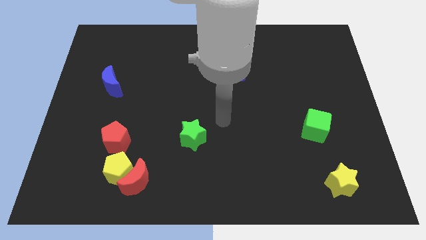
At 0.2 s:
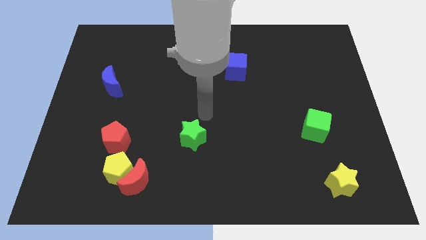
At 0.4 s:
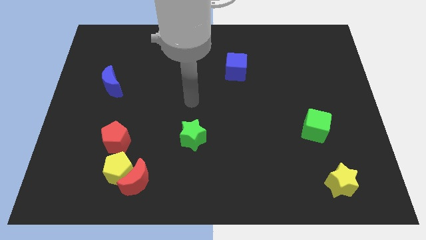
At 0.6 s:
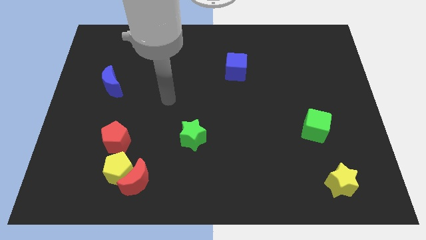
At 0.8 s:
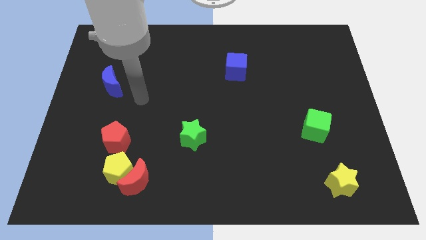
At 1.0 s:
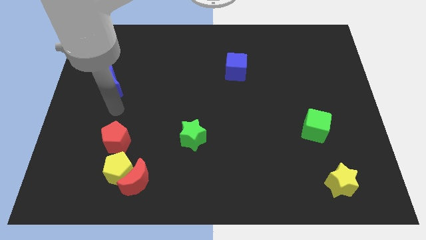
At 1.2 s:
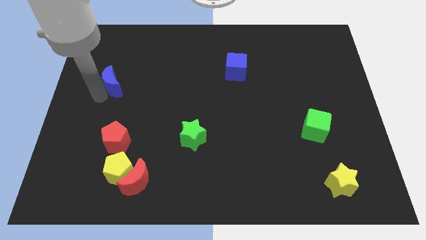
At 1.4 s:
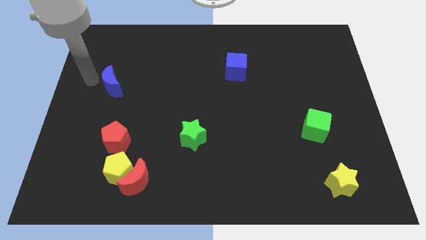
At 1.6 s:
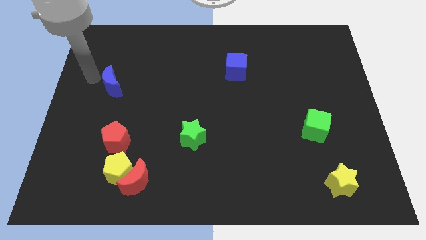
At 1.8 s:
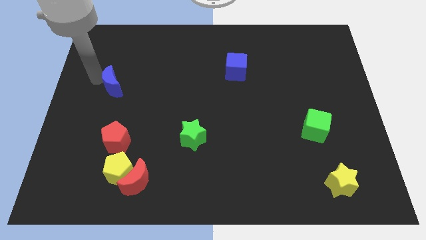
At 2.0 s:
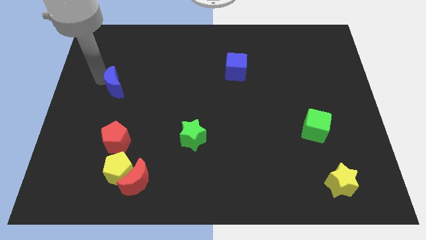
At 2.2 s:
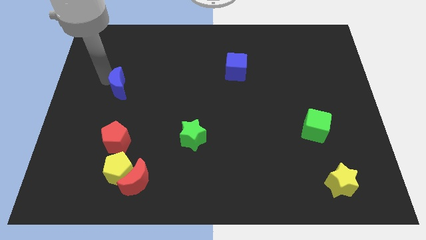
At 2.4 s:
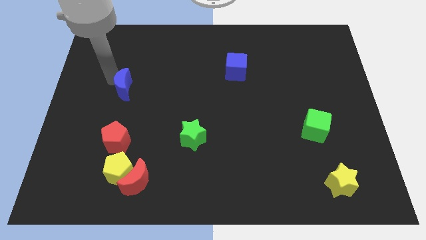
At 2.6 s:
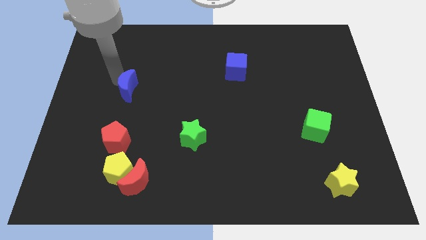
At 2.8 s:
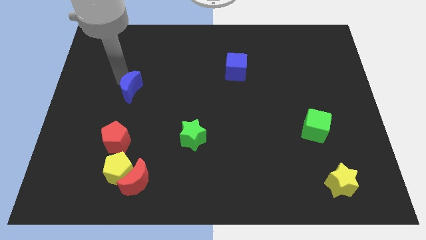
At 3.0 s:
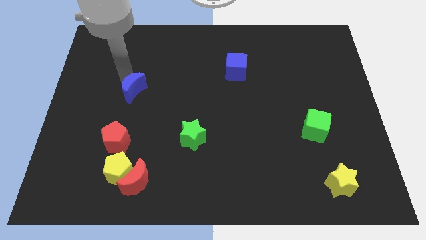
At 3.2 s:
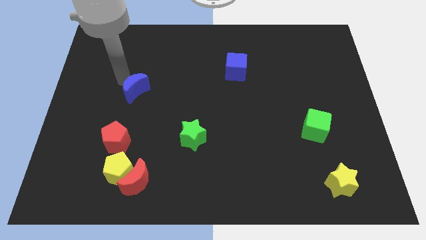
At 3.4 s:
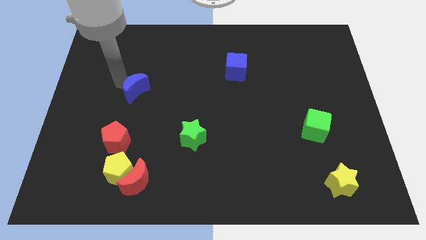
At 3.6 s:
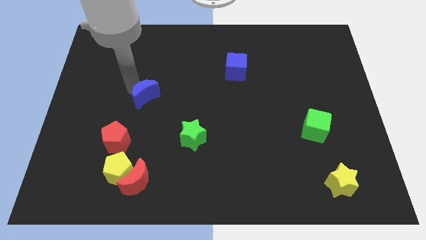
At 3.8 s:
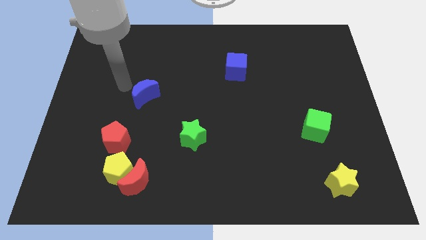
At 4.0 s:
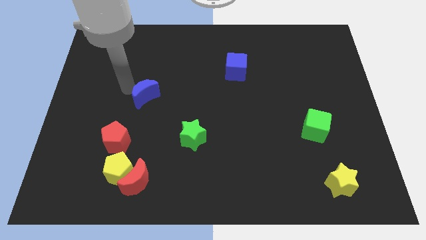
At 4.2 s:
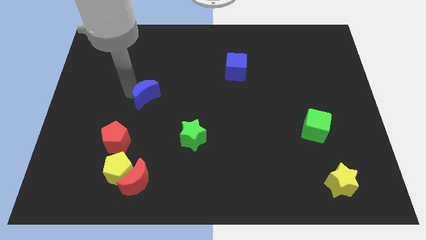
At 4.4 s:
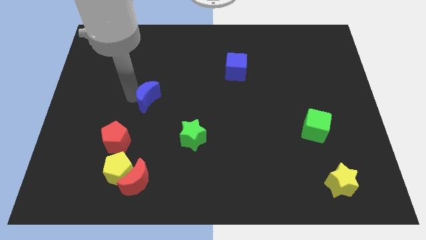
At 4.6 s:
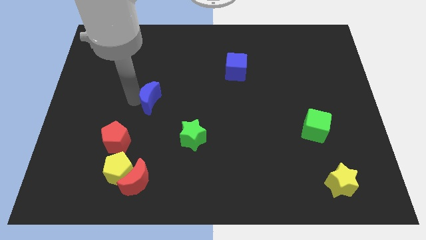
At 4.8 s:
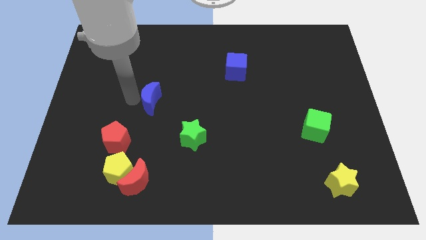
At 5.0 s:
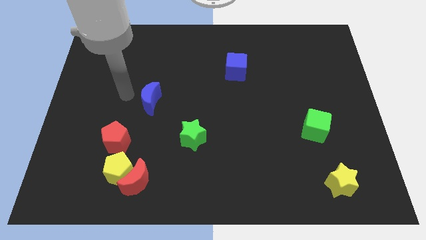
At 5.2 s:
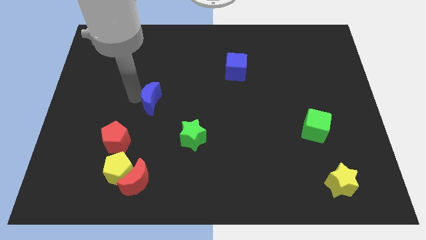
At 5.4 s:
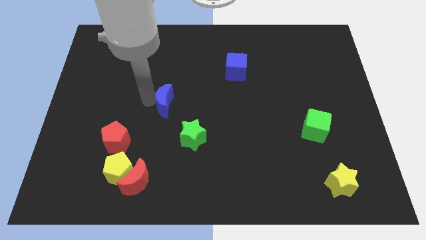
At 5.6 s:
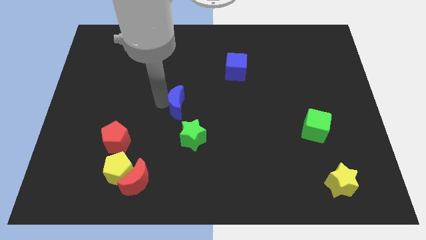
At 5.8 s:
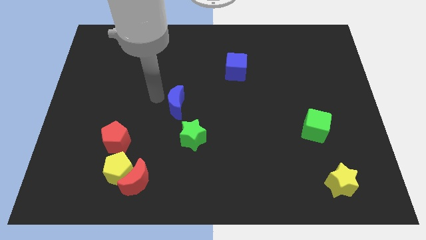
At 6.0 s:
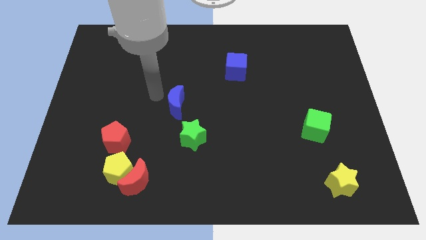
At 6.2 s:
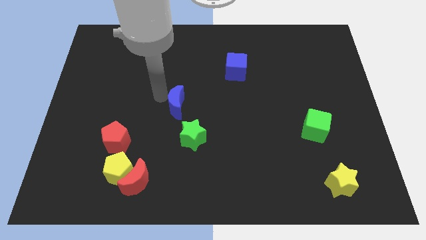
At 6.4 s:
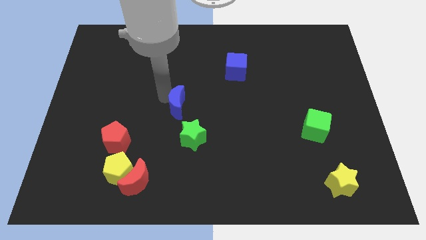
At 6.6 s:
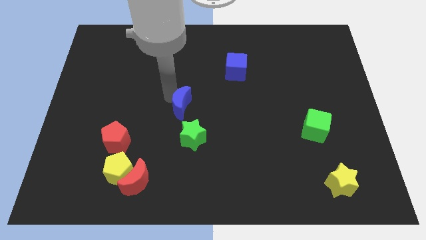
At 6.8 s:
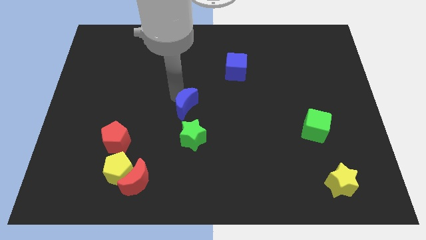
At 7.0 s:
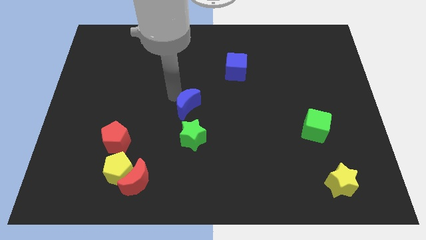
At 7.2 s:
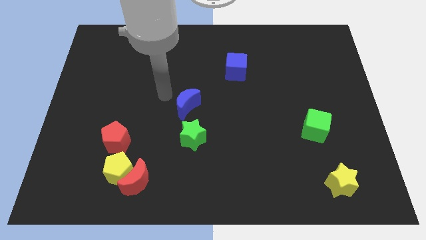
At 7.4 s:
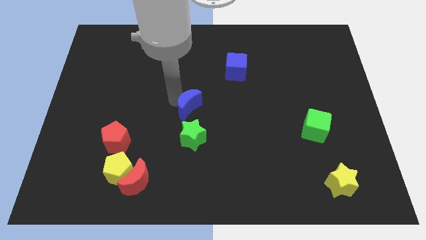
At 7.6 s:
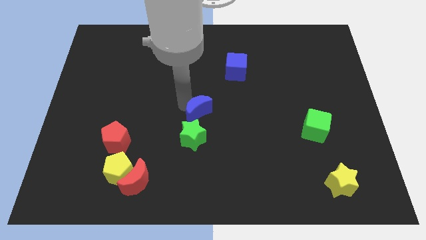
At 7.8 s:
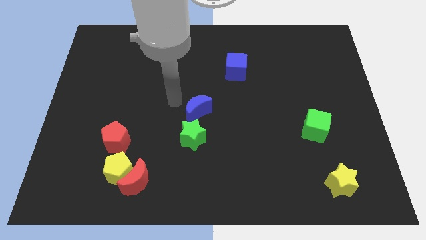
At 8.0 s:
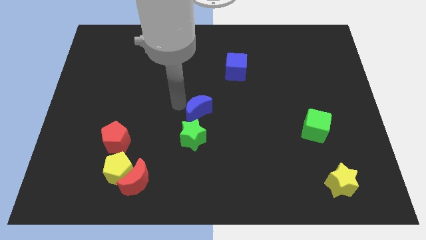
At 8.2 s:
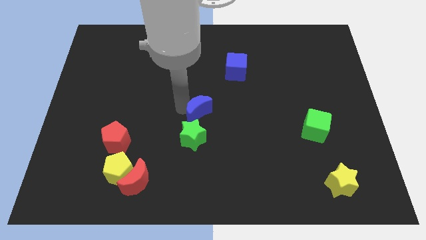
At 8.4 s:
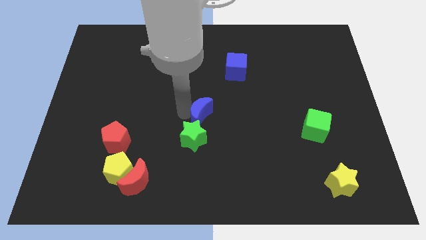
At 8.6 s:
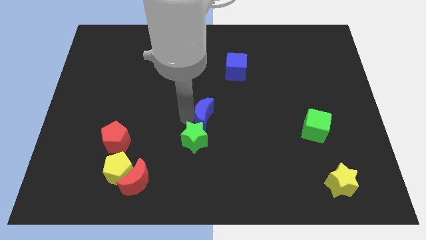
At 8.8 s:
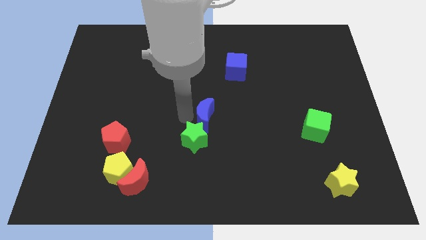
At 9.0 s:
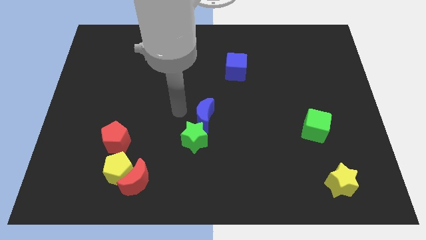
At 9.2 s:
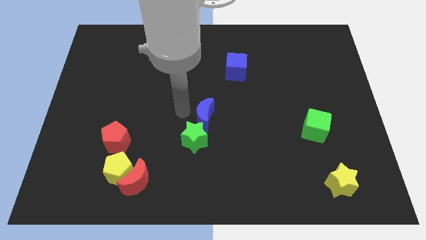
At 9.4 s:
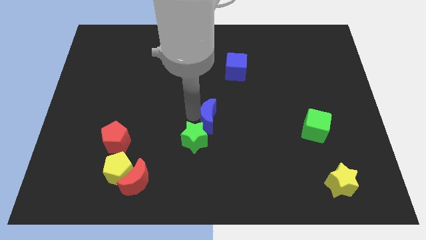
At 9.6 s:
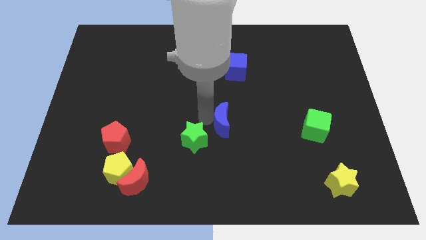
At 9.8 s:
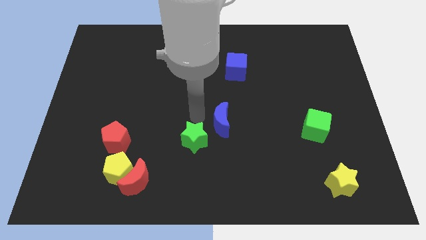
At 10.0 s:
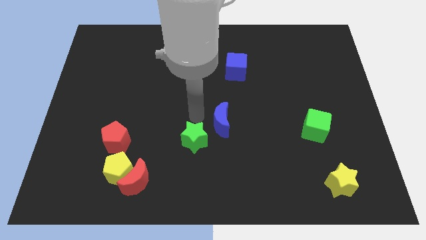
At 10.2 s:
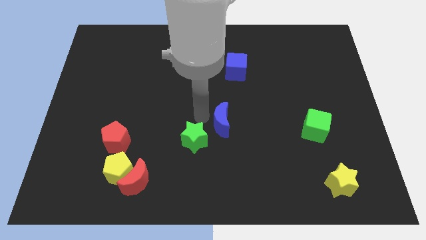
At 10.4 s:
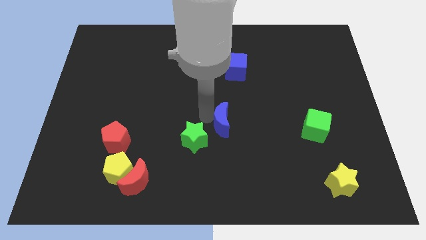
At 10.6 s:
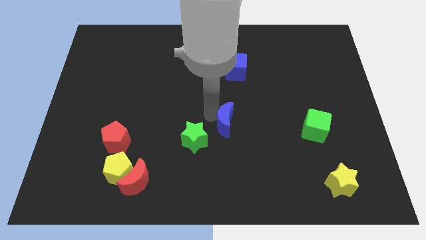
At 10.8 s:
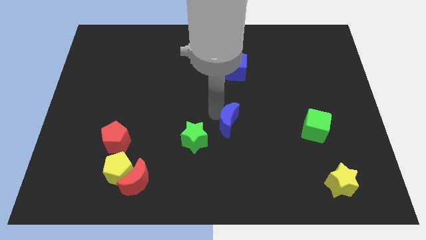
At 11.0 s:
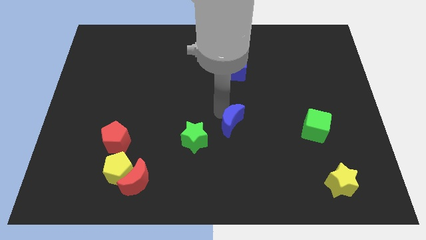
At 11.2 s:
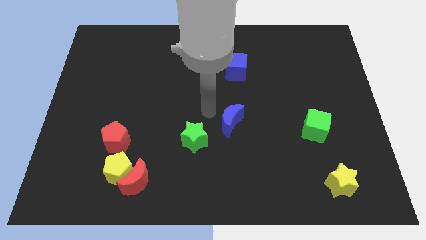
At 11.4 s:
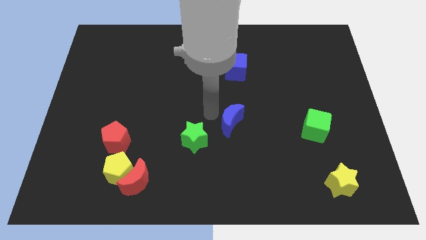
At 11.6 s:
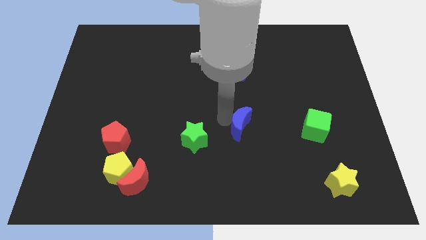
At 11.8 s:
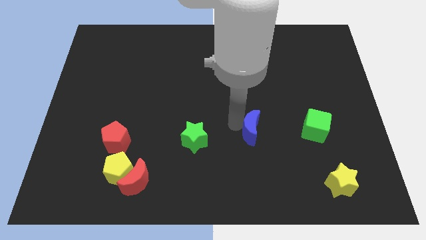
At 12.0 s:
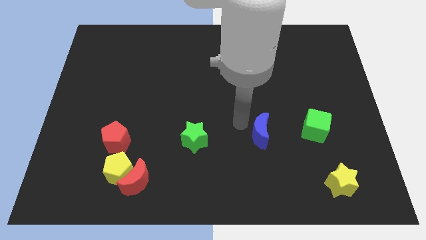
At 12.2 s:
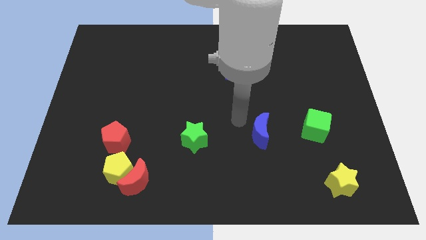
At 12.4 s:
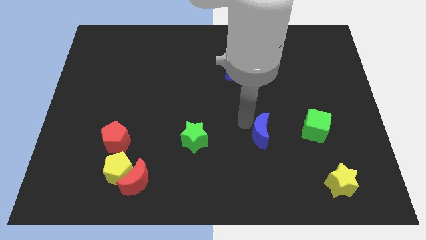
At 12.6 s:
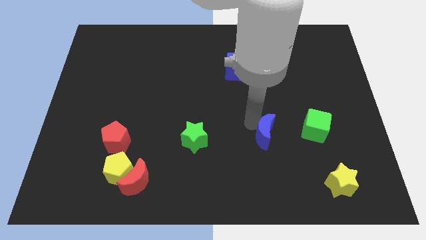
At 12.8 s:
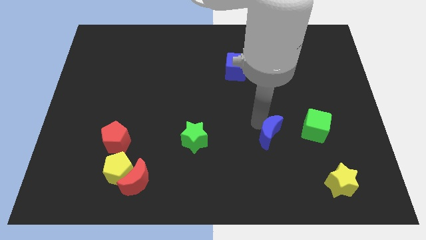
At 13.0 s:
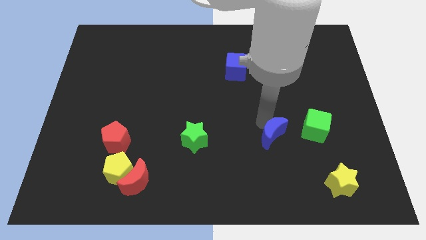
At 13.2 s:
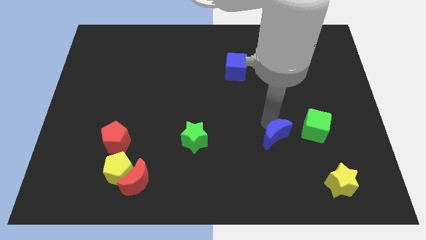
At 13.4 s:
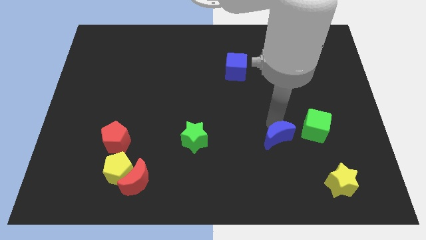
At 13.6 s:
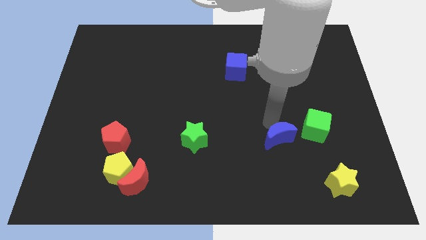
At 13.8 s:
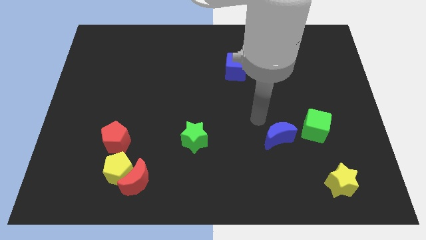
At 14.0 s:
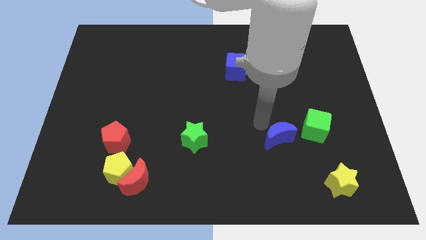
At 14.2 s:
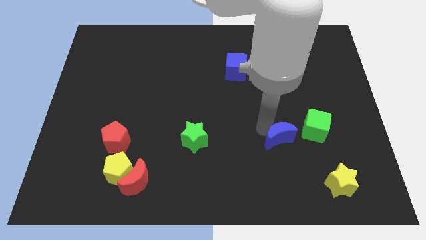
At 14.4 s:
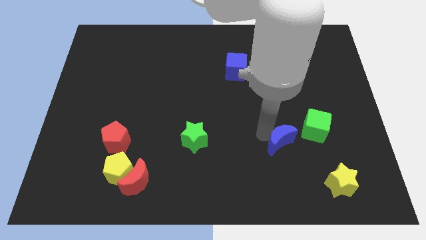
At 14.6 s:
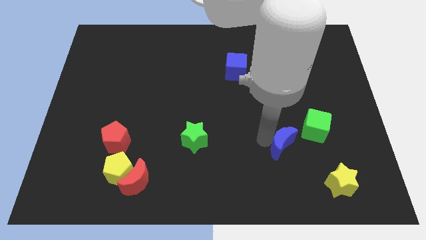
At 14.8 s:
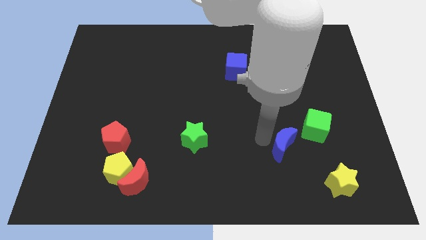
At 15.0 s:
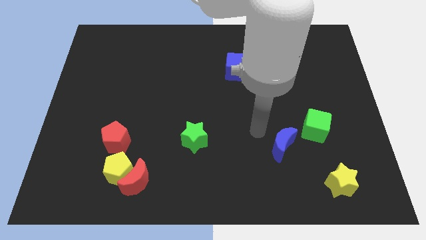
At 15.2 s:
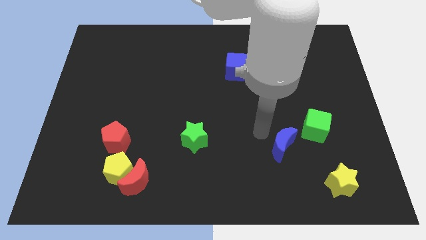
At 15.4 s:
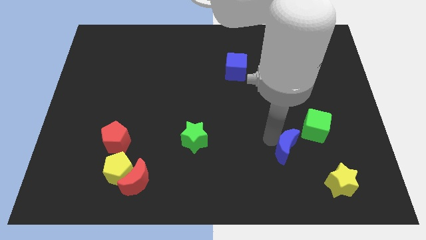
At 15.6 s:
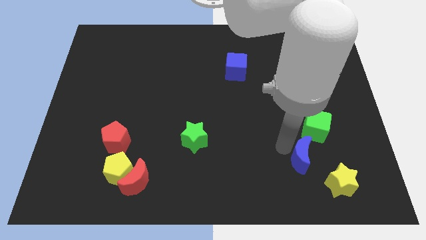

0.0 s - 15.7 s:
put the blue moon below the green cube
